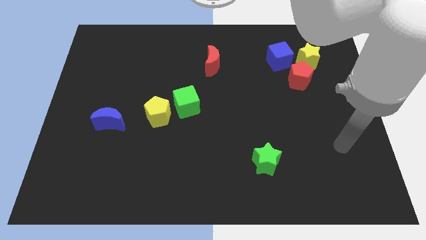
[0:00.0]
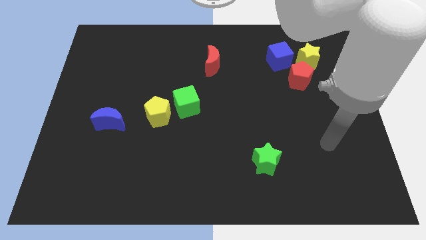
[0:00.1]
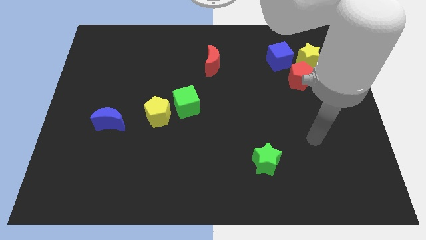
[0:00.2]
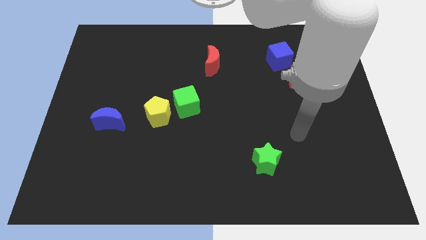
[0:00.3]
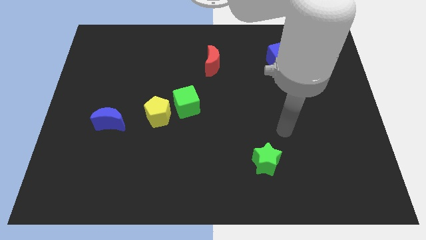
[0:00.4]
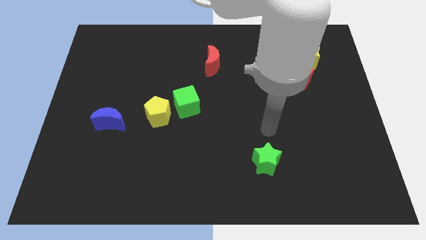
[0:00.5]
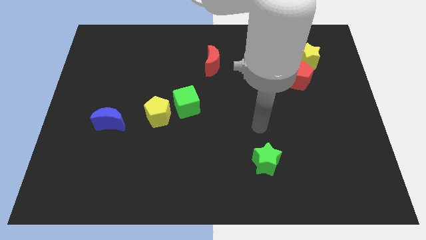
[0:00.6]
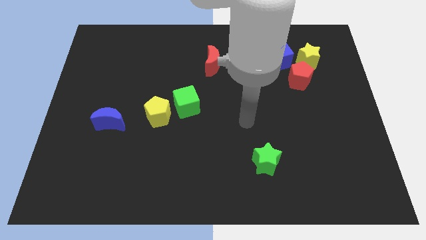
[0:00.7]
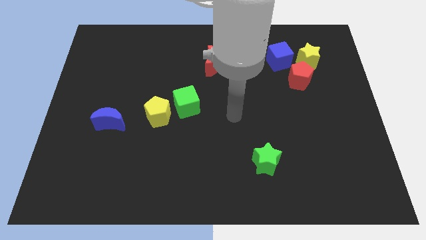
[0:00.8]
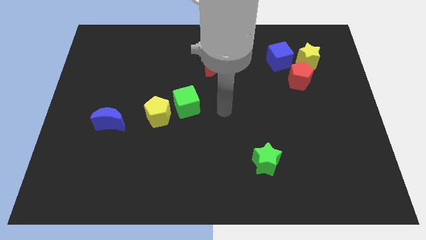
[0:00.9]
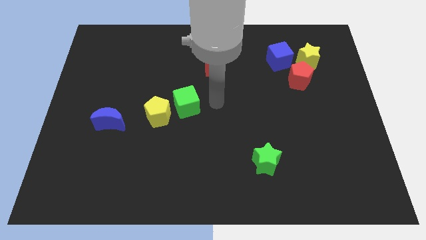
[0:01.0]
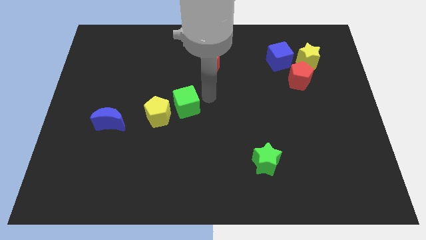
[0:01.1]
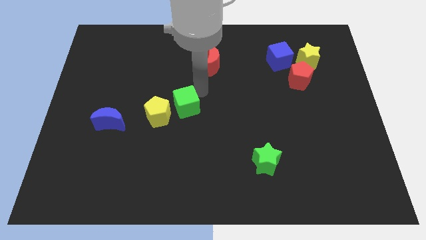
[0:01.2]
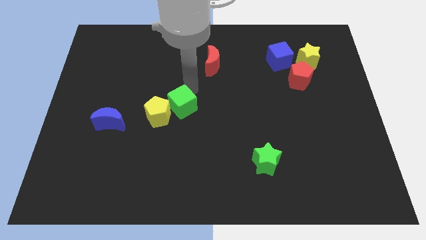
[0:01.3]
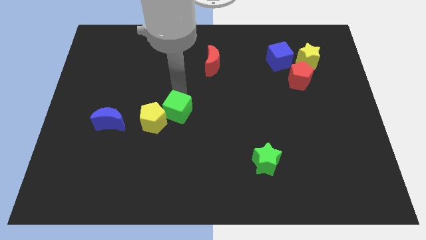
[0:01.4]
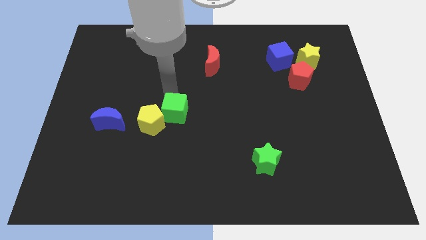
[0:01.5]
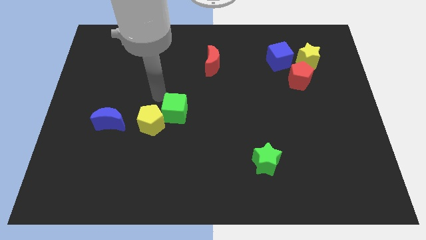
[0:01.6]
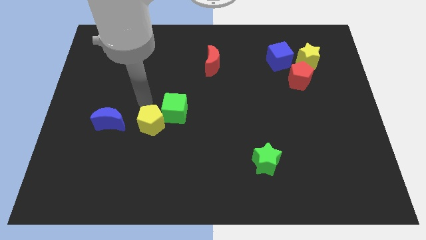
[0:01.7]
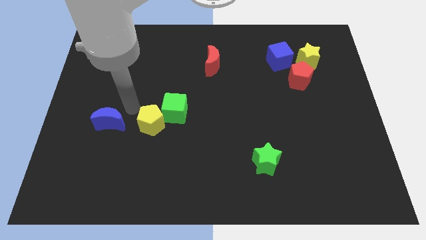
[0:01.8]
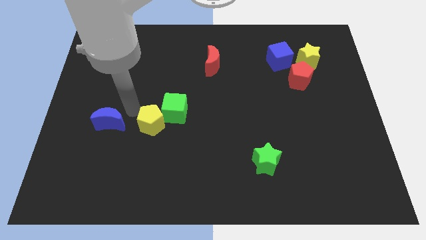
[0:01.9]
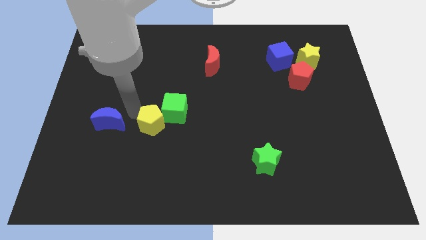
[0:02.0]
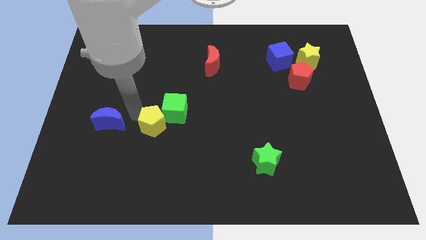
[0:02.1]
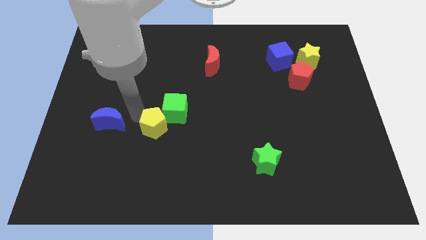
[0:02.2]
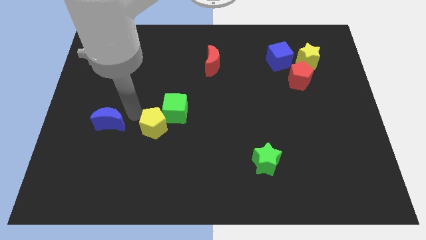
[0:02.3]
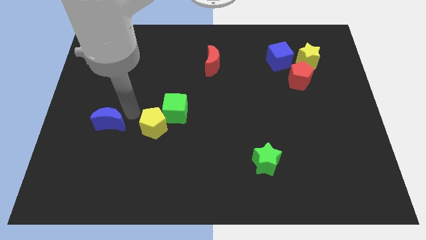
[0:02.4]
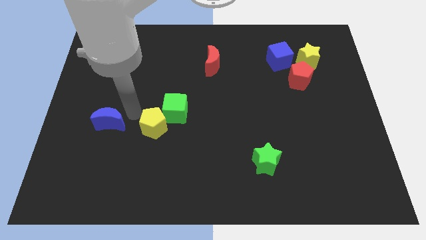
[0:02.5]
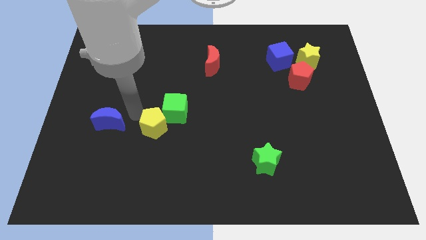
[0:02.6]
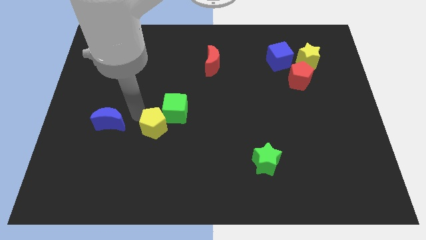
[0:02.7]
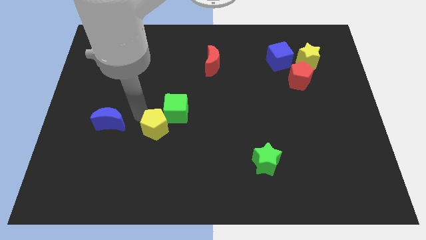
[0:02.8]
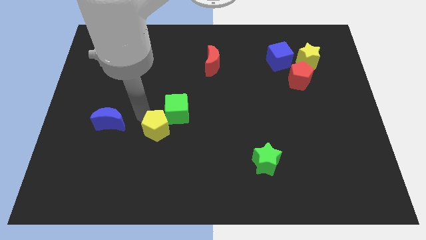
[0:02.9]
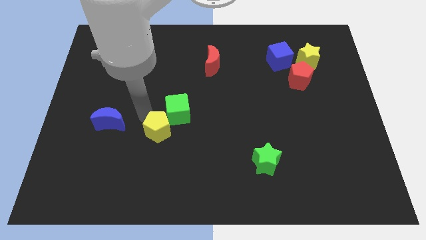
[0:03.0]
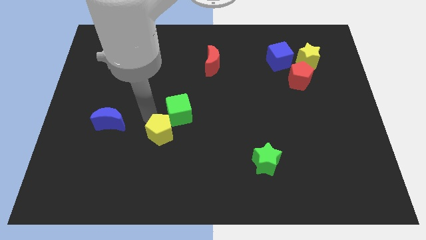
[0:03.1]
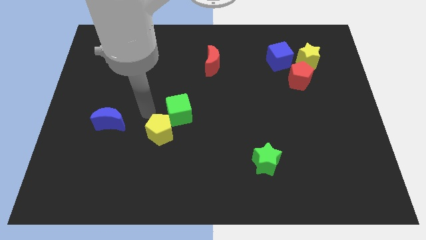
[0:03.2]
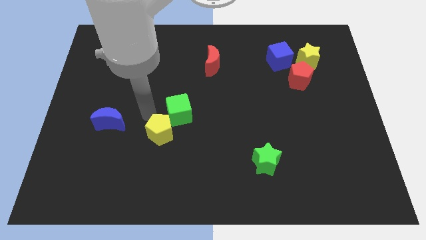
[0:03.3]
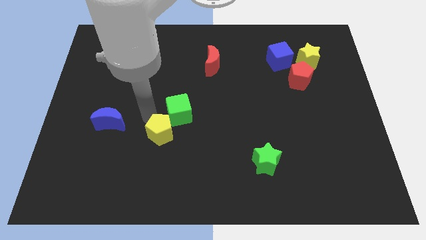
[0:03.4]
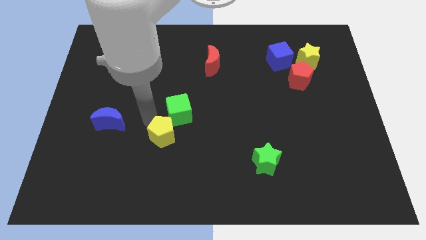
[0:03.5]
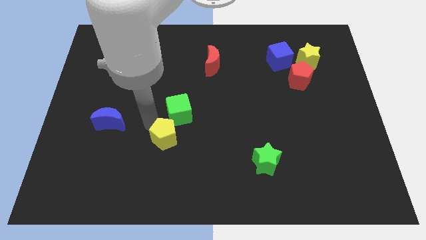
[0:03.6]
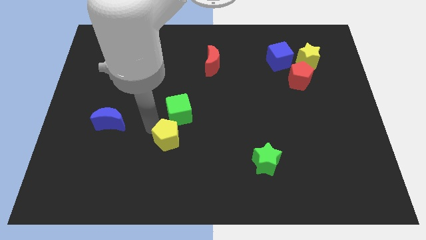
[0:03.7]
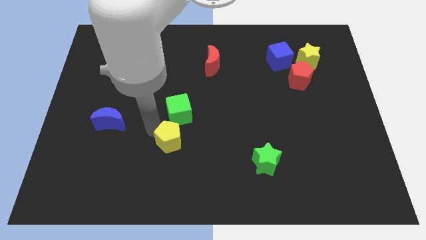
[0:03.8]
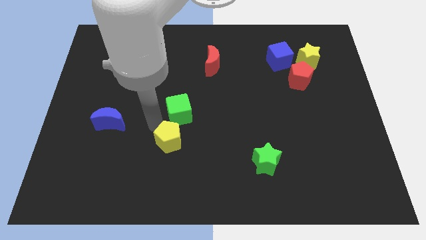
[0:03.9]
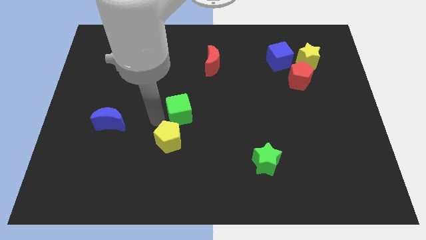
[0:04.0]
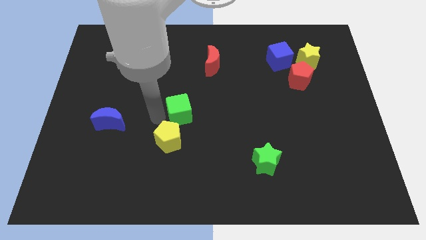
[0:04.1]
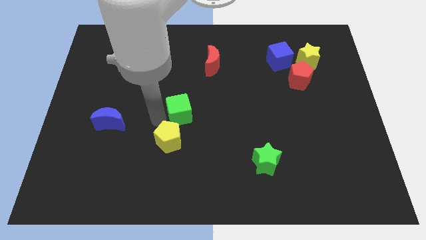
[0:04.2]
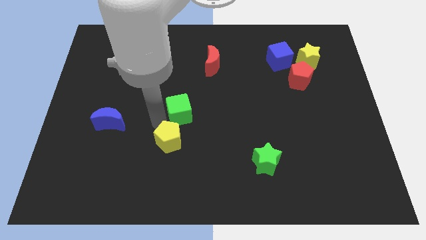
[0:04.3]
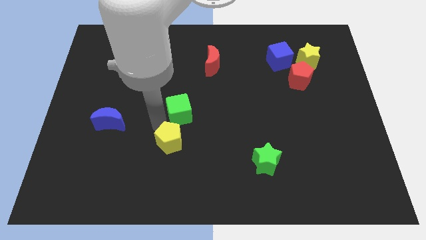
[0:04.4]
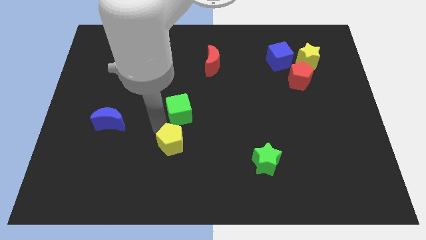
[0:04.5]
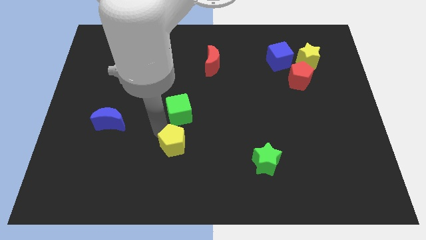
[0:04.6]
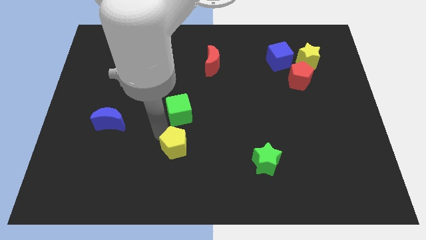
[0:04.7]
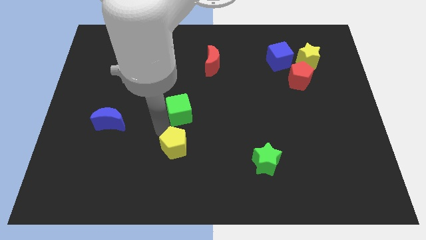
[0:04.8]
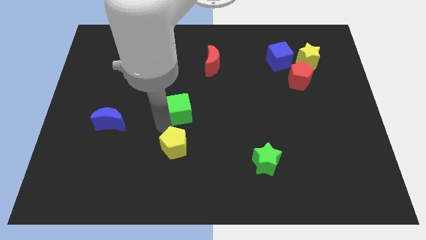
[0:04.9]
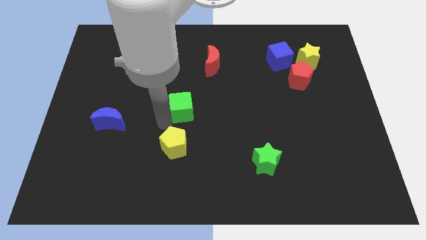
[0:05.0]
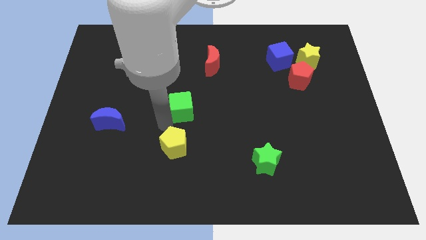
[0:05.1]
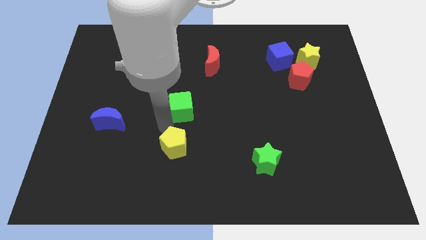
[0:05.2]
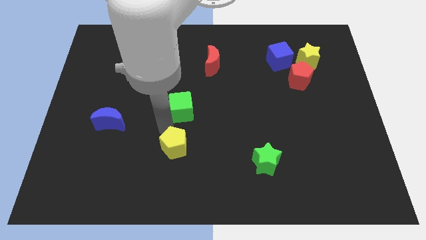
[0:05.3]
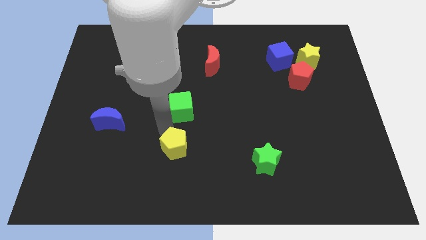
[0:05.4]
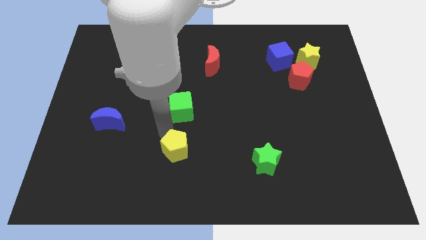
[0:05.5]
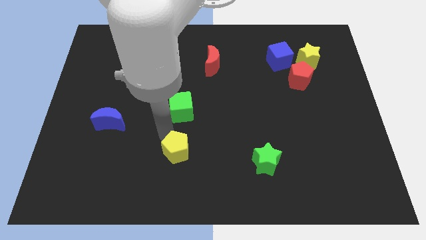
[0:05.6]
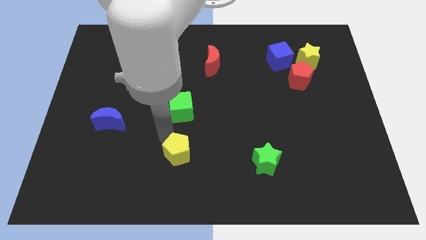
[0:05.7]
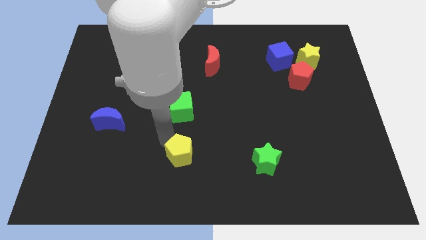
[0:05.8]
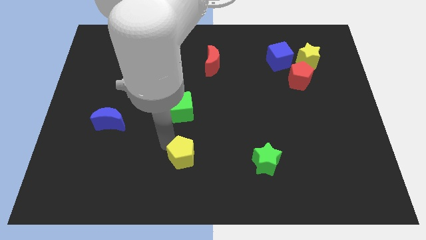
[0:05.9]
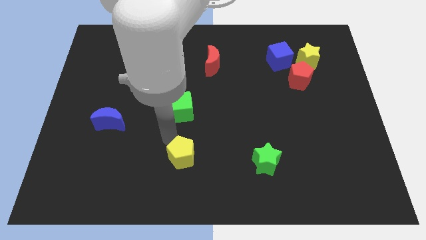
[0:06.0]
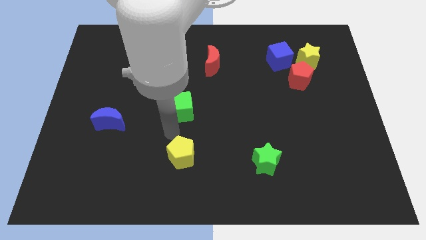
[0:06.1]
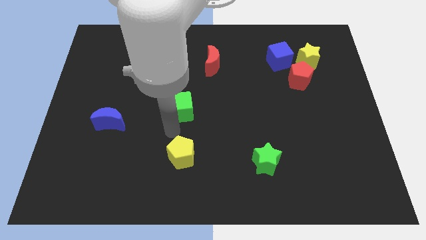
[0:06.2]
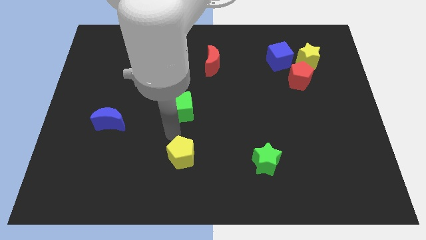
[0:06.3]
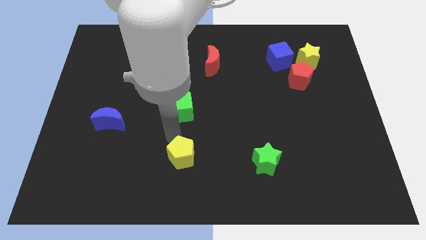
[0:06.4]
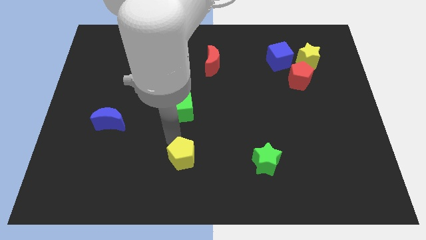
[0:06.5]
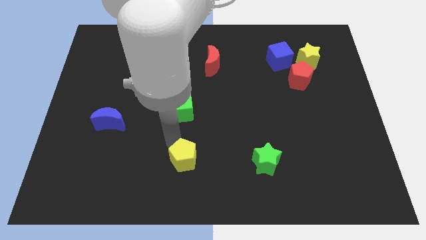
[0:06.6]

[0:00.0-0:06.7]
put the yellow pentagon to the bottom
